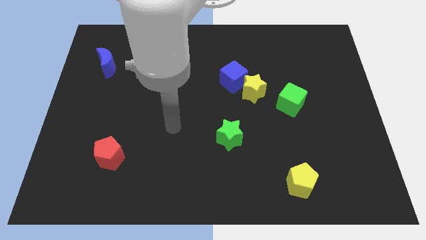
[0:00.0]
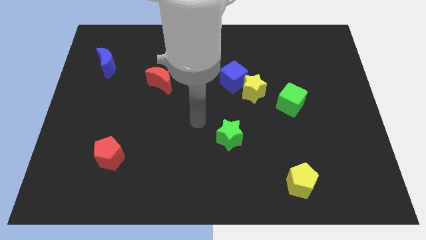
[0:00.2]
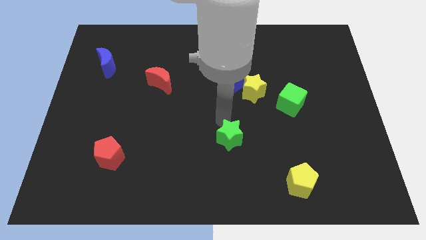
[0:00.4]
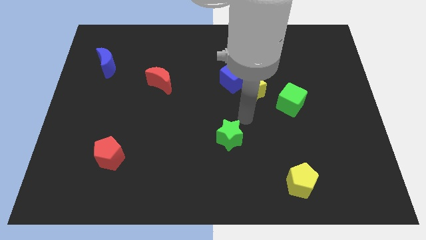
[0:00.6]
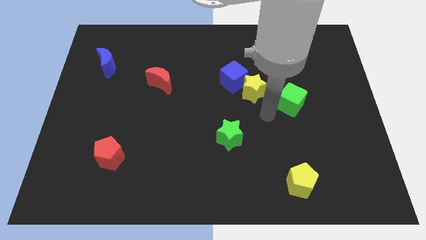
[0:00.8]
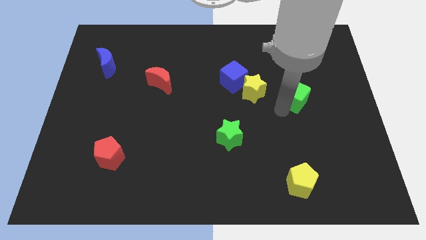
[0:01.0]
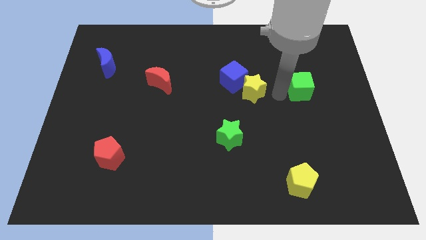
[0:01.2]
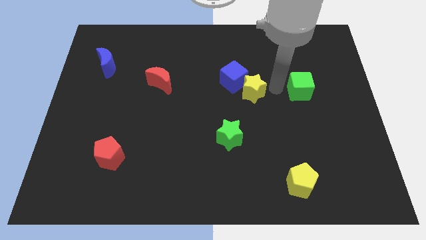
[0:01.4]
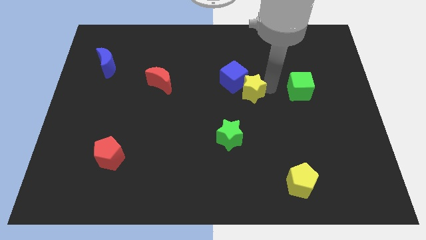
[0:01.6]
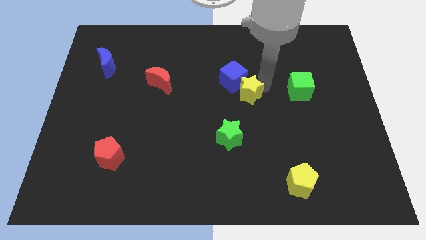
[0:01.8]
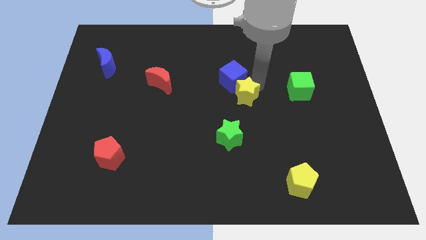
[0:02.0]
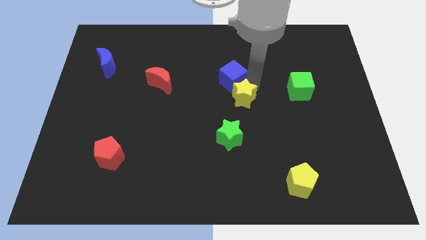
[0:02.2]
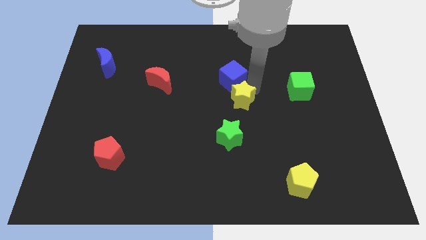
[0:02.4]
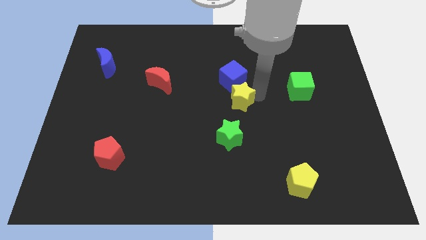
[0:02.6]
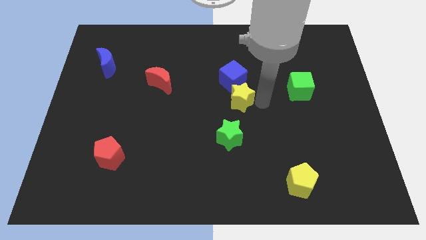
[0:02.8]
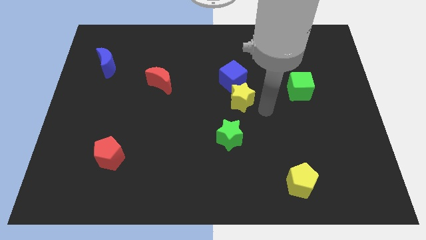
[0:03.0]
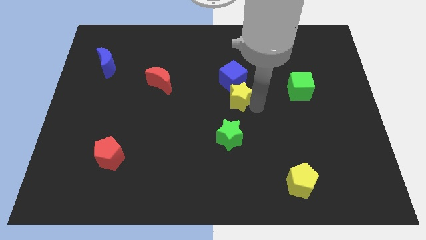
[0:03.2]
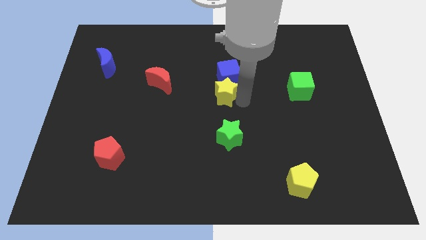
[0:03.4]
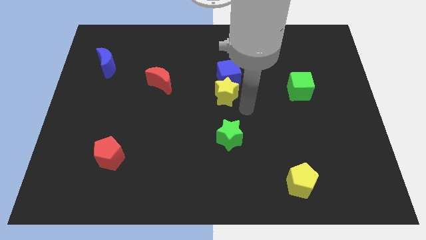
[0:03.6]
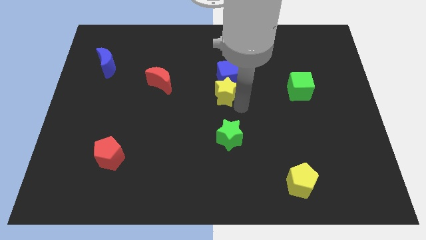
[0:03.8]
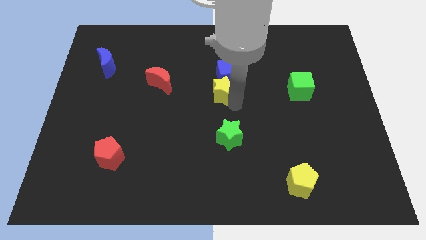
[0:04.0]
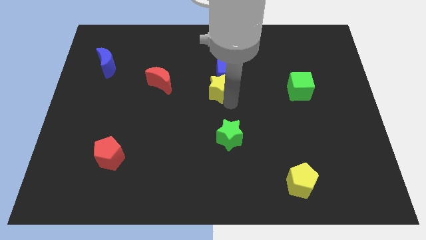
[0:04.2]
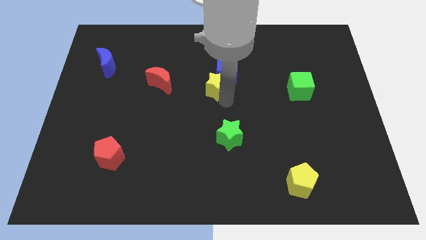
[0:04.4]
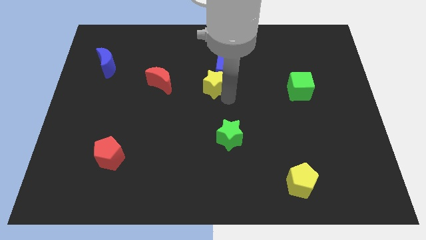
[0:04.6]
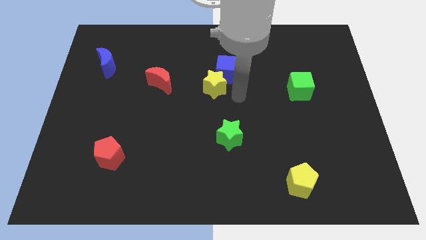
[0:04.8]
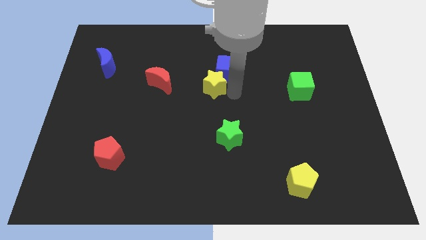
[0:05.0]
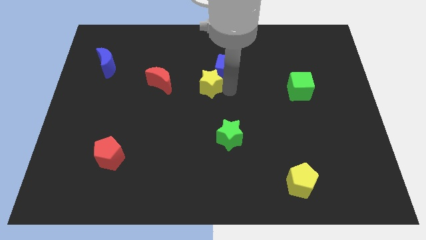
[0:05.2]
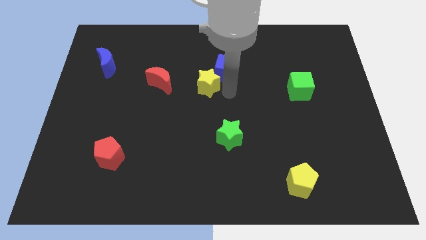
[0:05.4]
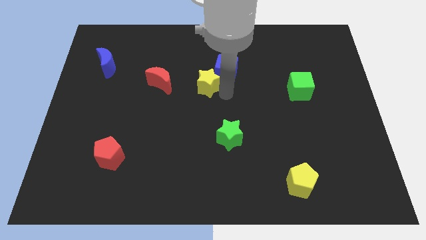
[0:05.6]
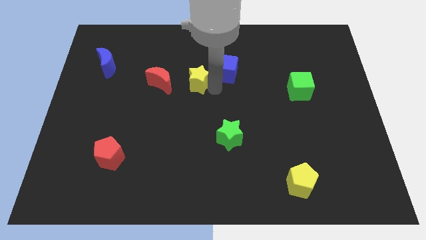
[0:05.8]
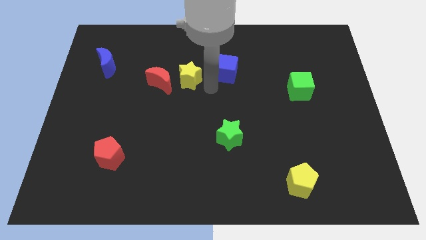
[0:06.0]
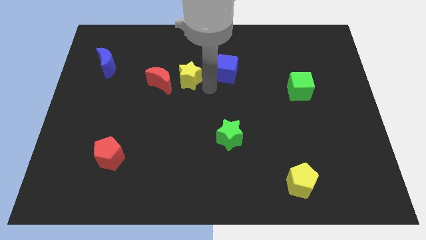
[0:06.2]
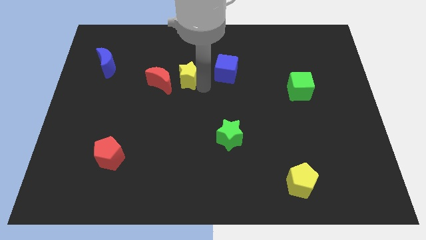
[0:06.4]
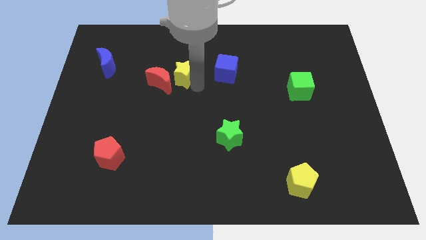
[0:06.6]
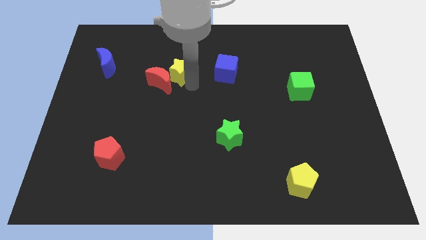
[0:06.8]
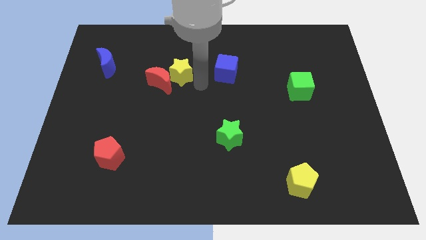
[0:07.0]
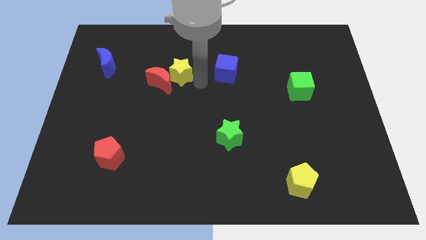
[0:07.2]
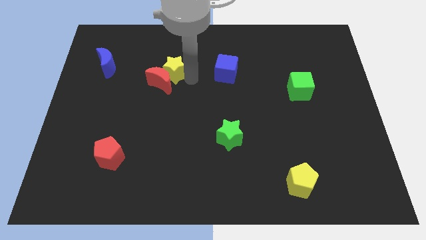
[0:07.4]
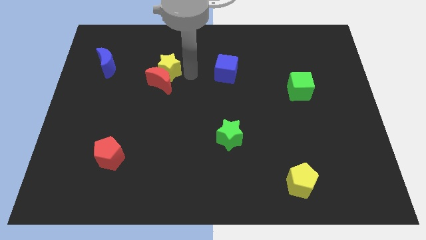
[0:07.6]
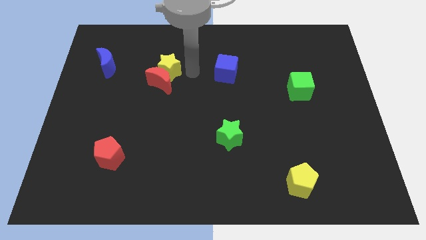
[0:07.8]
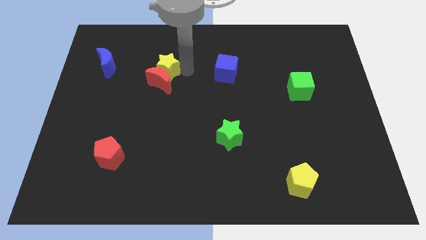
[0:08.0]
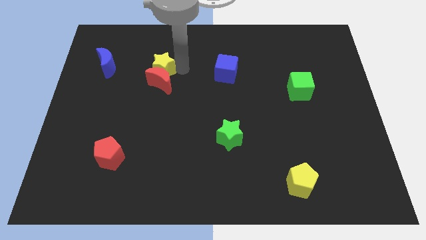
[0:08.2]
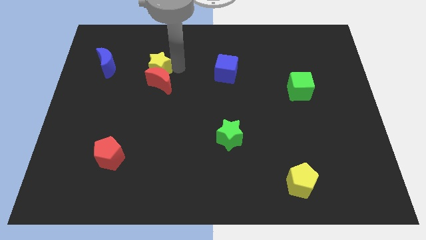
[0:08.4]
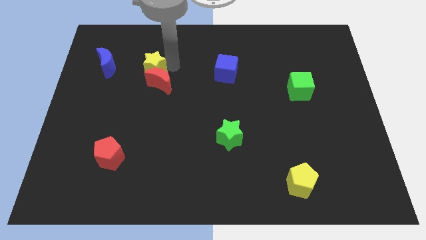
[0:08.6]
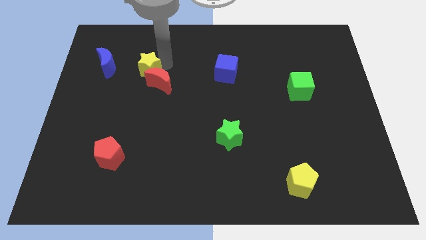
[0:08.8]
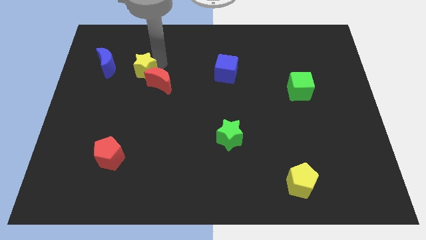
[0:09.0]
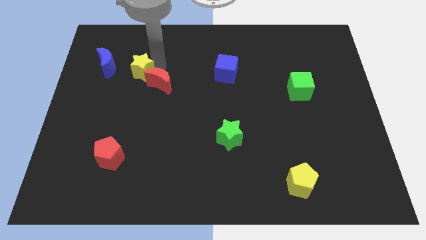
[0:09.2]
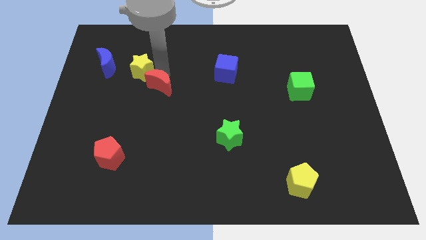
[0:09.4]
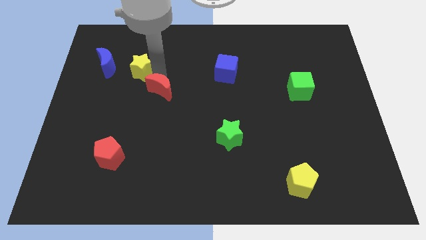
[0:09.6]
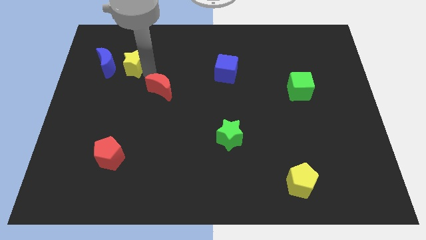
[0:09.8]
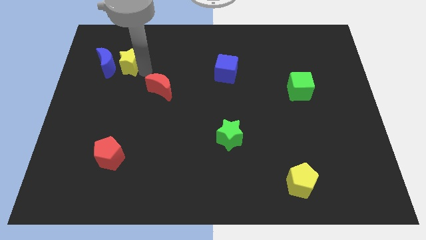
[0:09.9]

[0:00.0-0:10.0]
put the yellow star close to the blue moon

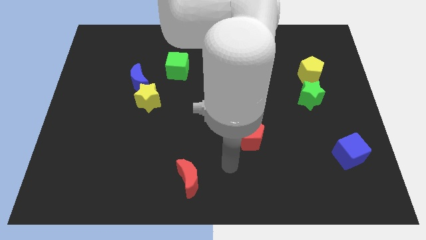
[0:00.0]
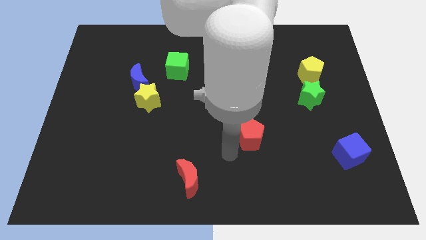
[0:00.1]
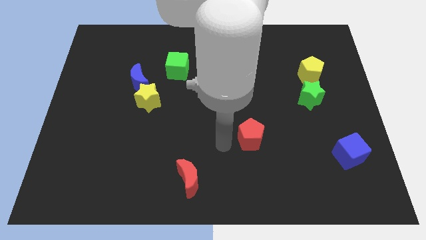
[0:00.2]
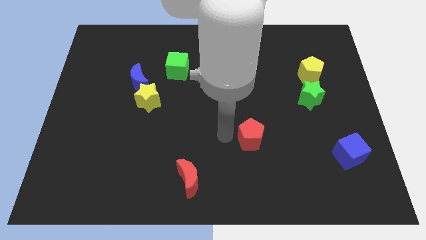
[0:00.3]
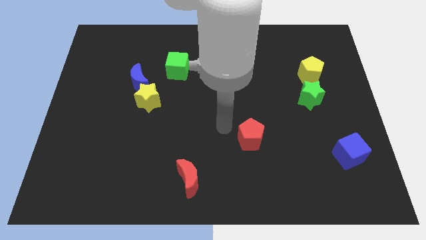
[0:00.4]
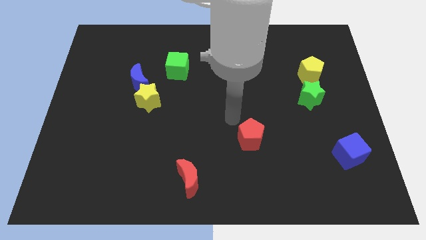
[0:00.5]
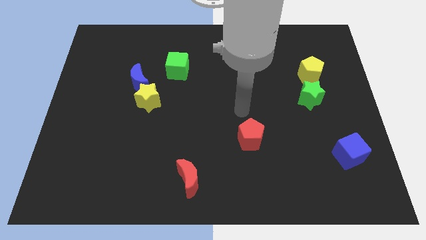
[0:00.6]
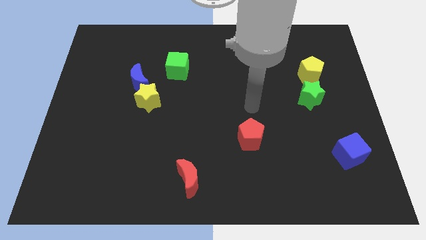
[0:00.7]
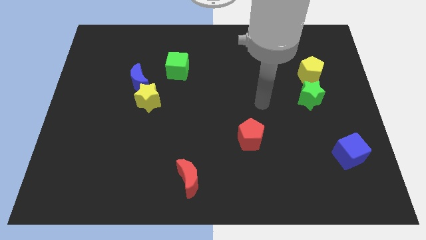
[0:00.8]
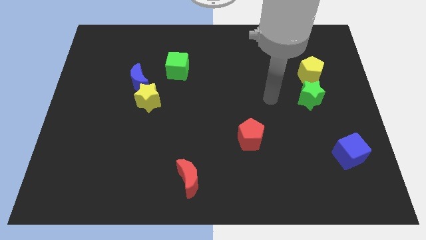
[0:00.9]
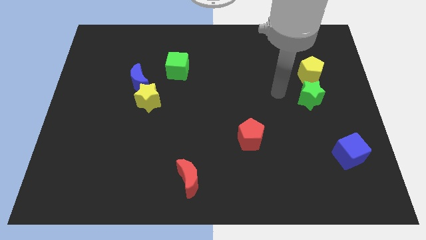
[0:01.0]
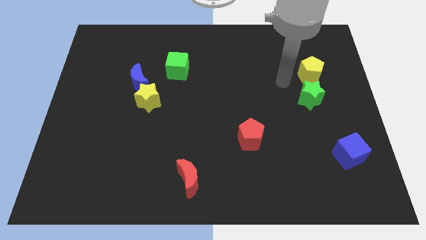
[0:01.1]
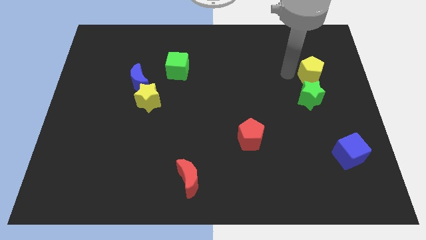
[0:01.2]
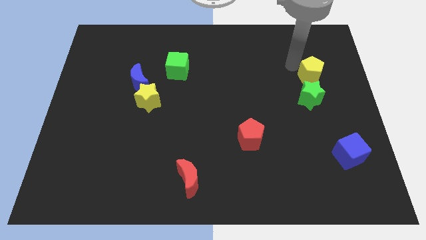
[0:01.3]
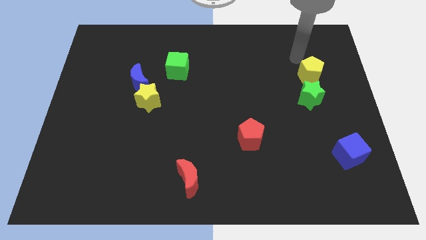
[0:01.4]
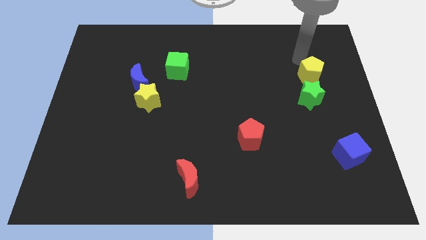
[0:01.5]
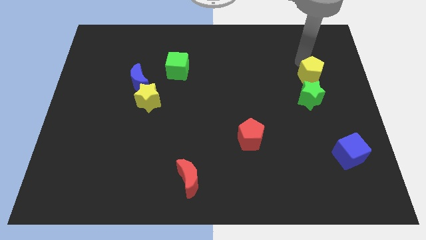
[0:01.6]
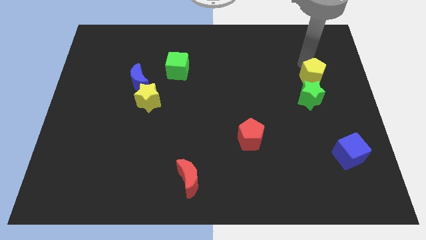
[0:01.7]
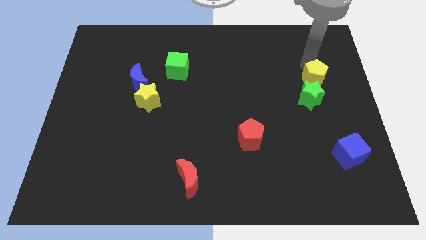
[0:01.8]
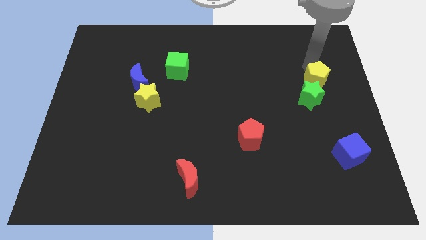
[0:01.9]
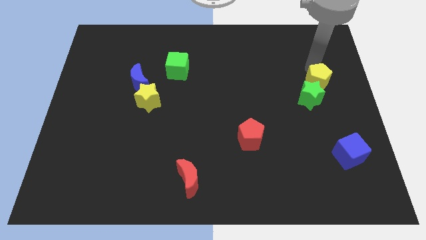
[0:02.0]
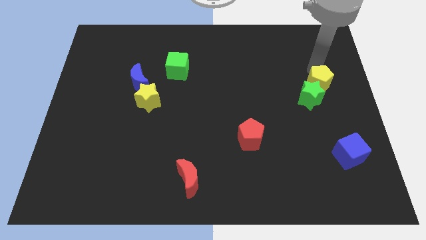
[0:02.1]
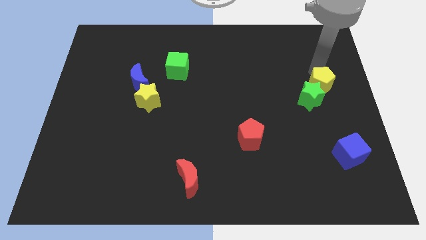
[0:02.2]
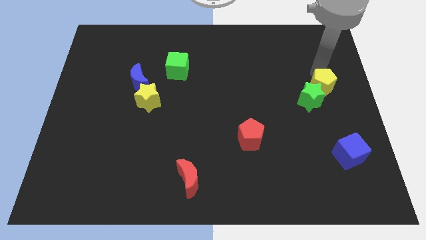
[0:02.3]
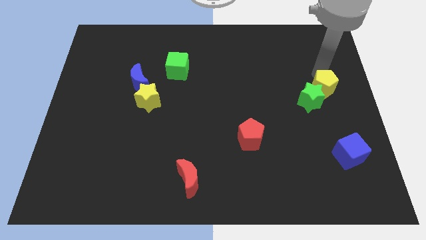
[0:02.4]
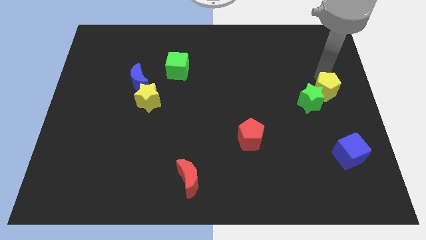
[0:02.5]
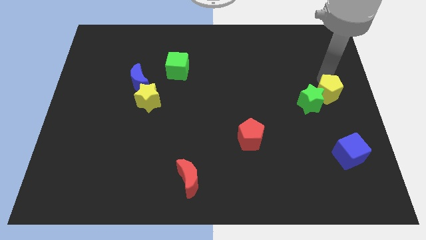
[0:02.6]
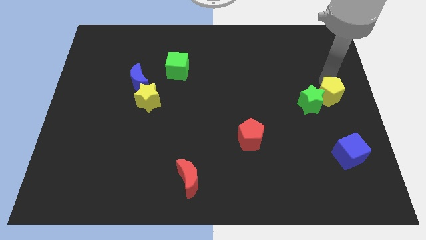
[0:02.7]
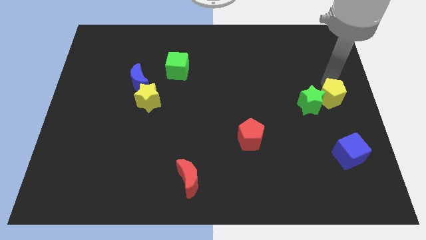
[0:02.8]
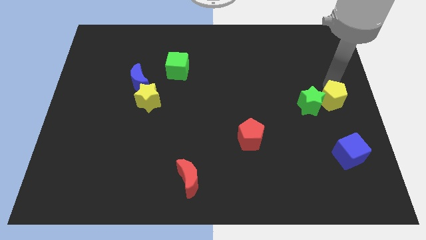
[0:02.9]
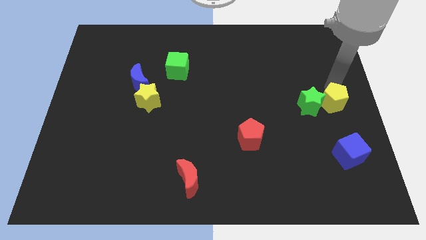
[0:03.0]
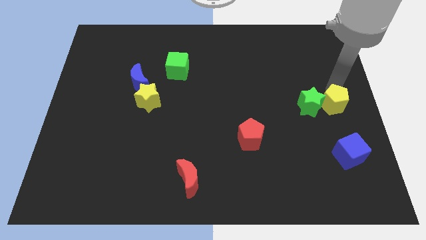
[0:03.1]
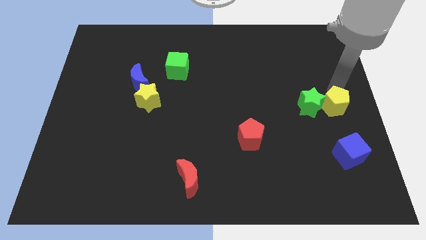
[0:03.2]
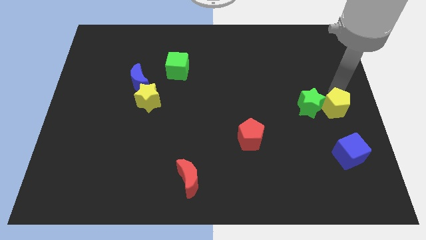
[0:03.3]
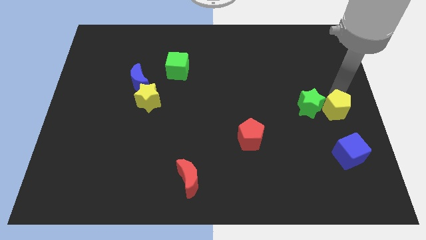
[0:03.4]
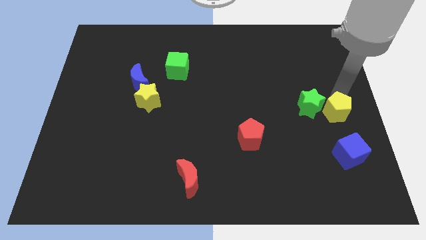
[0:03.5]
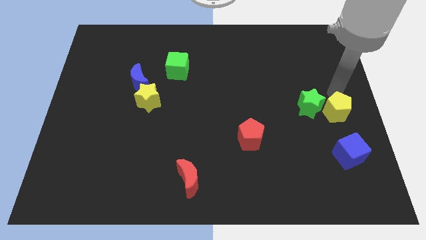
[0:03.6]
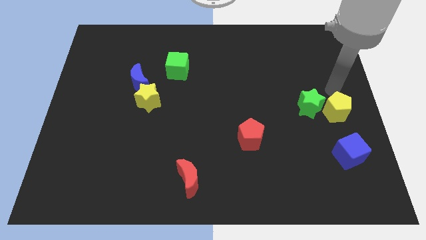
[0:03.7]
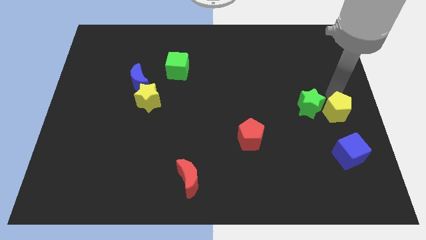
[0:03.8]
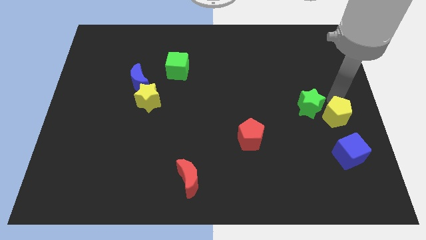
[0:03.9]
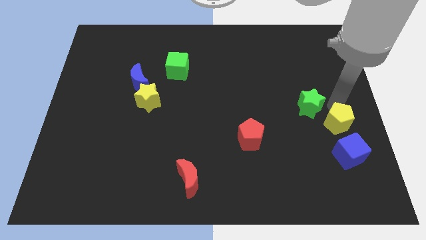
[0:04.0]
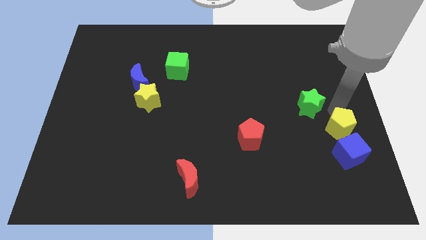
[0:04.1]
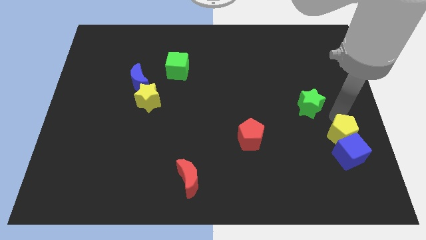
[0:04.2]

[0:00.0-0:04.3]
slide the yellow pentagon next to the blue cube
